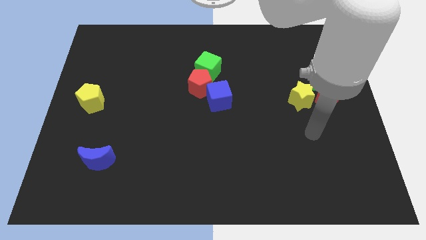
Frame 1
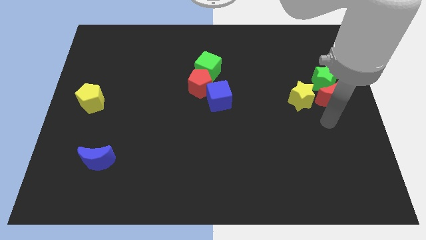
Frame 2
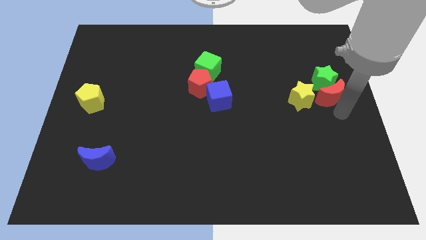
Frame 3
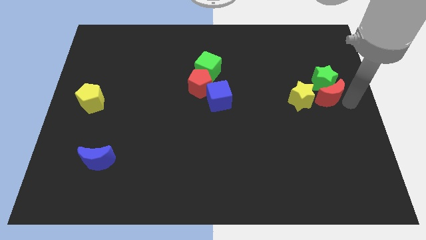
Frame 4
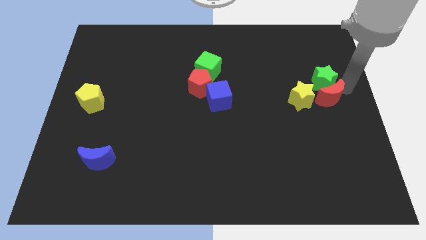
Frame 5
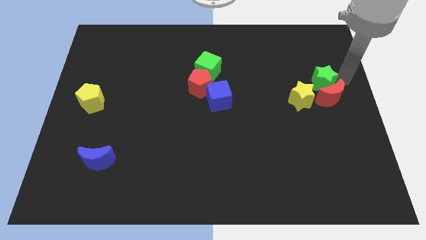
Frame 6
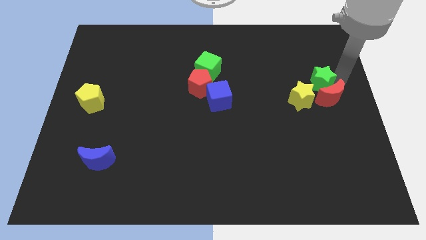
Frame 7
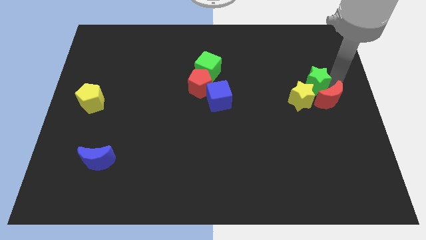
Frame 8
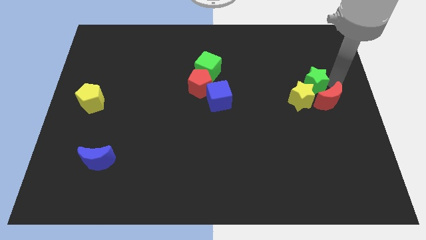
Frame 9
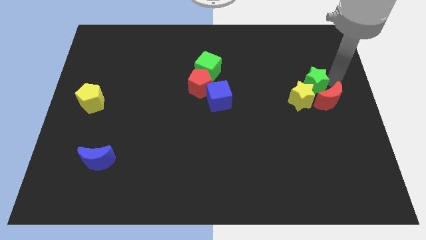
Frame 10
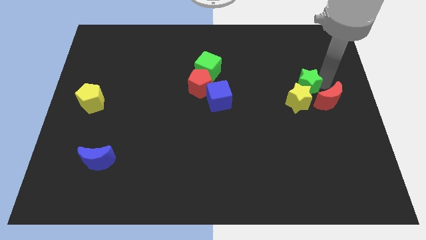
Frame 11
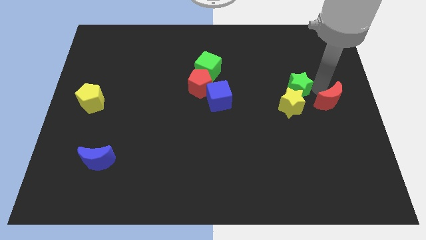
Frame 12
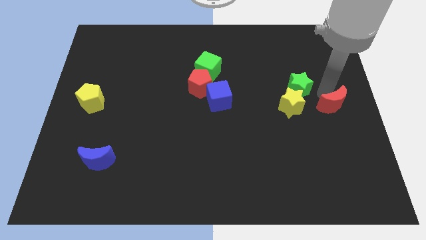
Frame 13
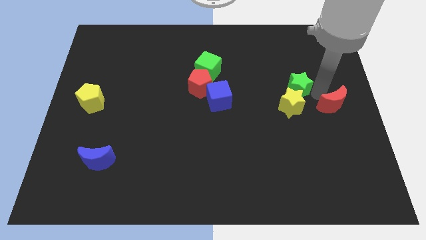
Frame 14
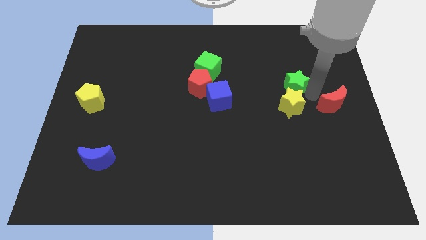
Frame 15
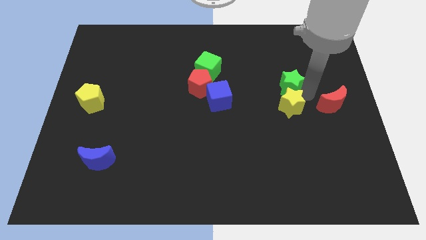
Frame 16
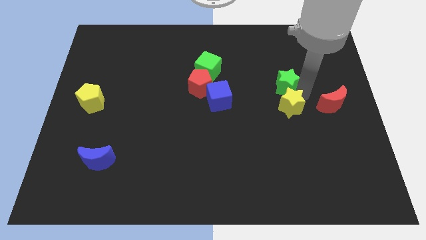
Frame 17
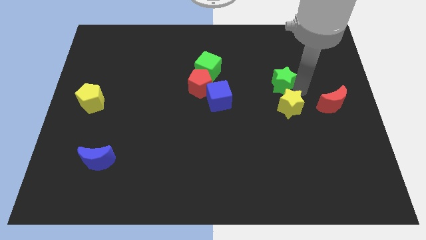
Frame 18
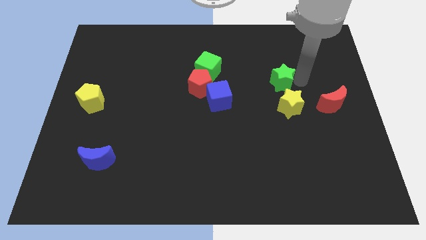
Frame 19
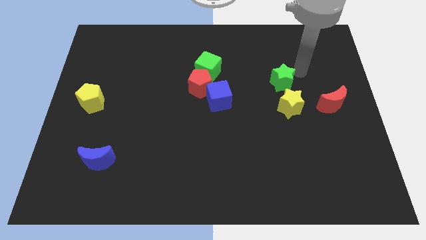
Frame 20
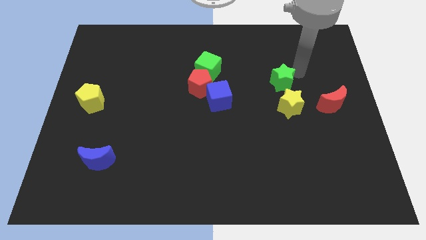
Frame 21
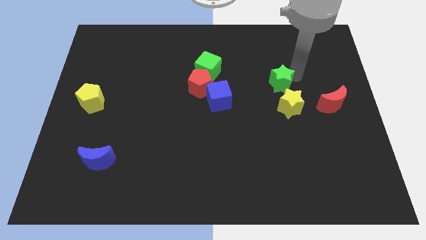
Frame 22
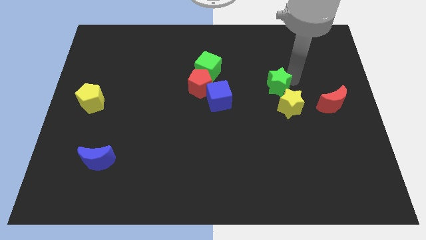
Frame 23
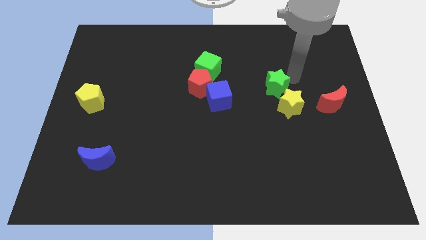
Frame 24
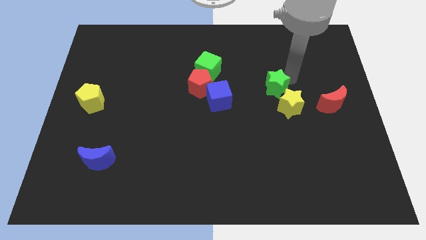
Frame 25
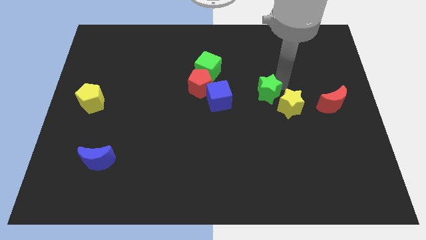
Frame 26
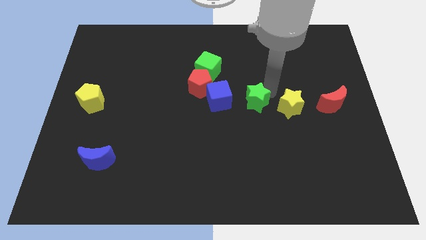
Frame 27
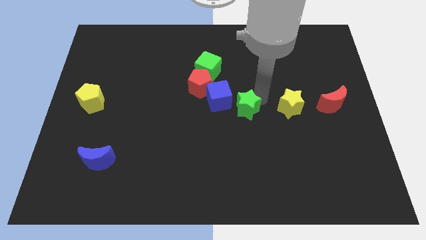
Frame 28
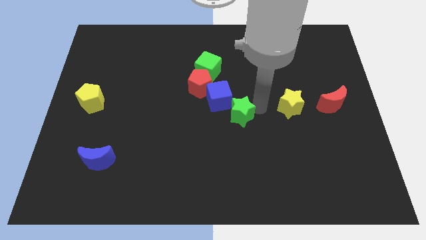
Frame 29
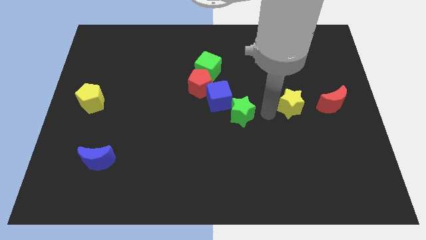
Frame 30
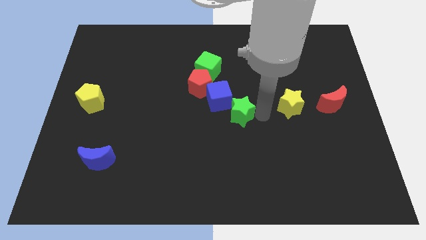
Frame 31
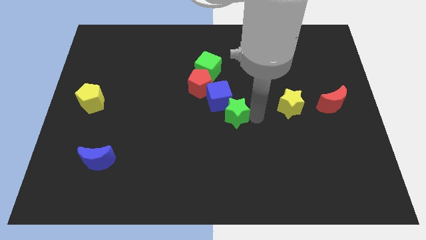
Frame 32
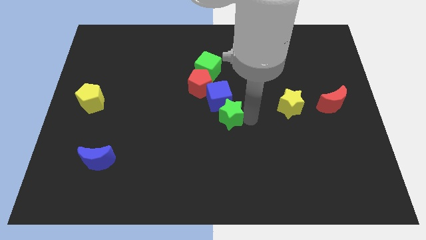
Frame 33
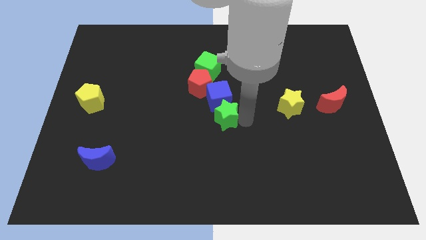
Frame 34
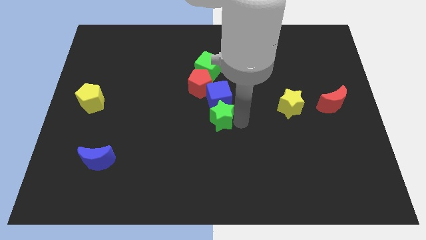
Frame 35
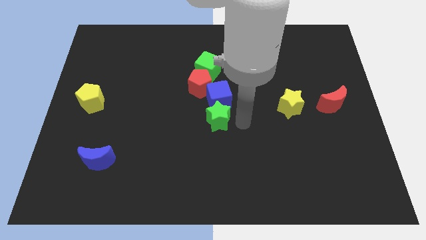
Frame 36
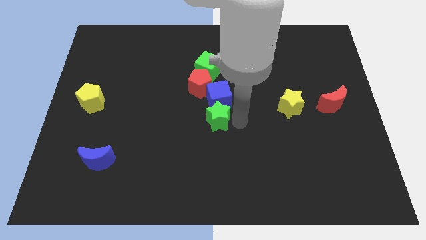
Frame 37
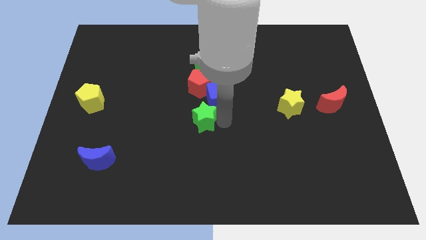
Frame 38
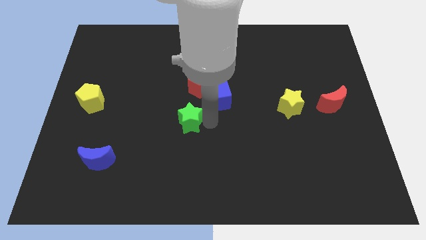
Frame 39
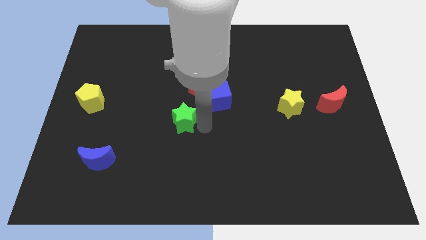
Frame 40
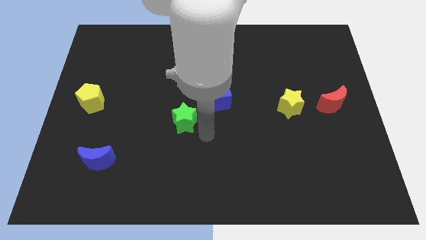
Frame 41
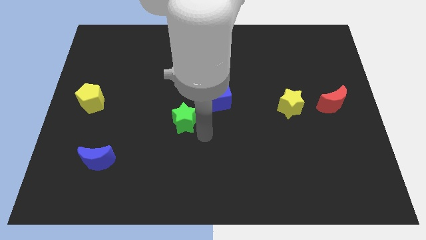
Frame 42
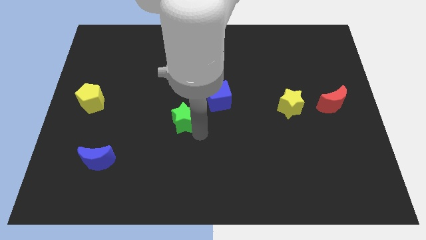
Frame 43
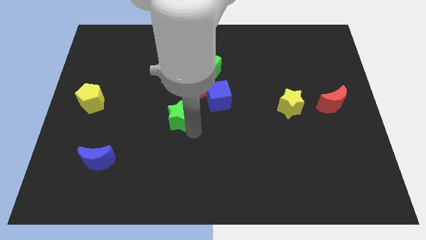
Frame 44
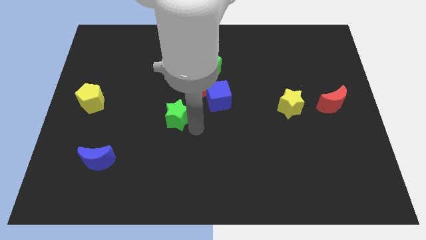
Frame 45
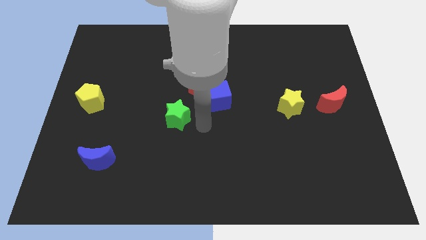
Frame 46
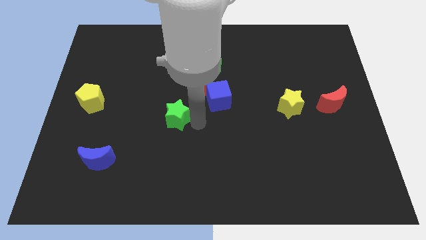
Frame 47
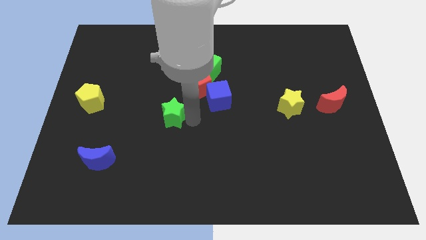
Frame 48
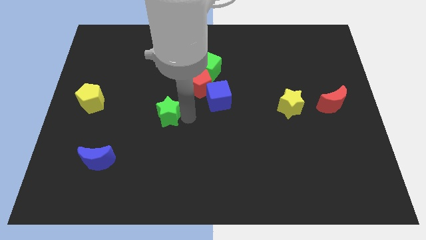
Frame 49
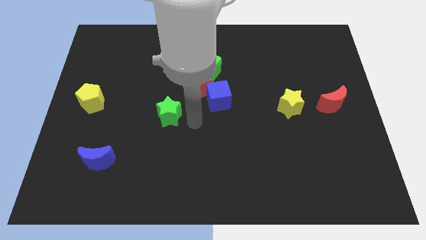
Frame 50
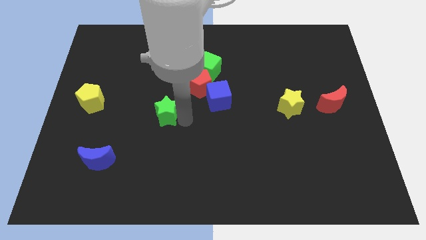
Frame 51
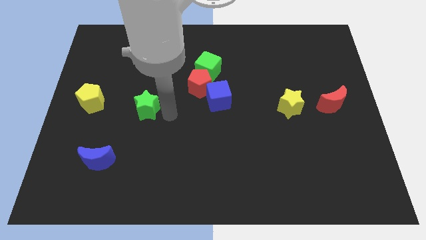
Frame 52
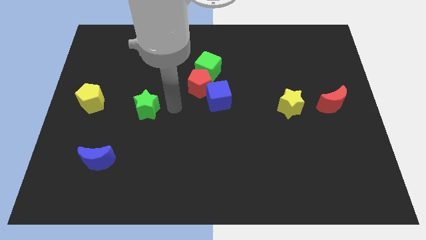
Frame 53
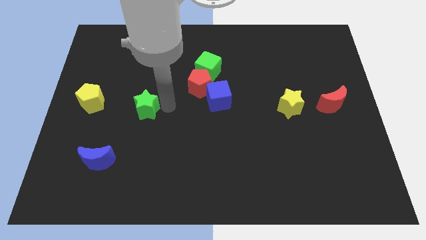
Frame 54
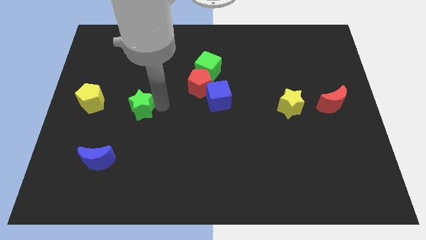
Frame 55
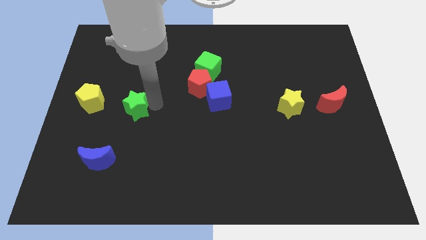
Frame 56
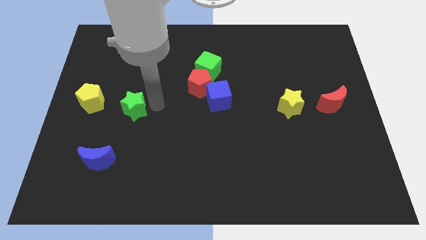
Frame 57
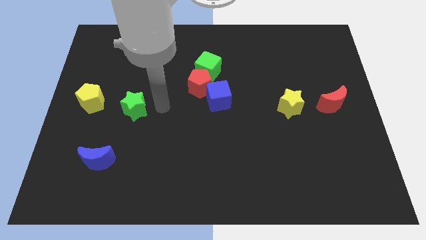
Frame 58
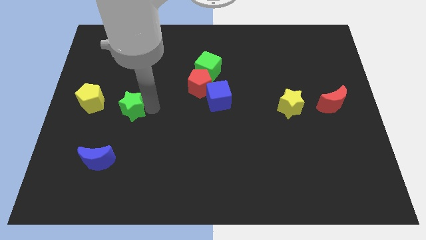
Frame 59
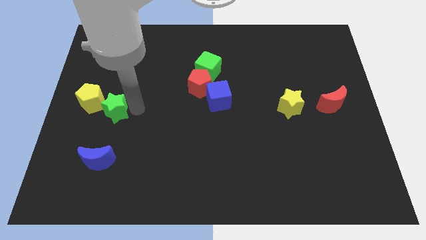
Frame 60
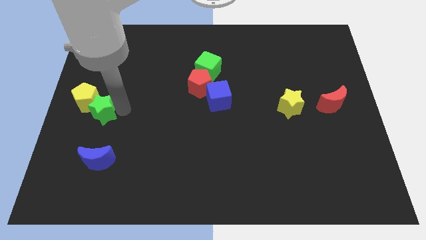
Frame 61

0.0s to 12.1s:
put the green star to the left side

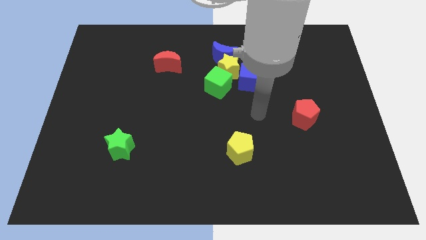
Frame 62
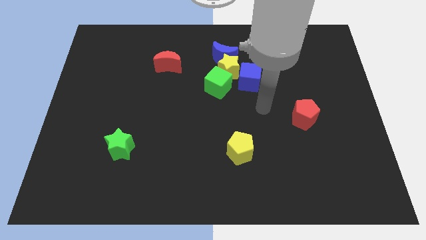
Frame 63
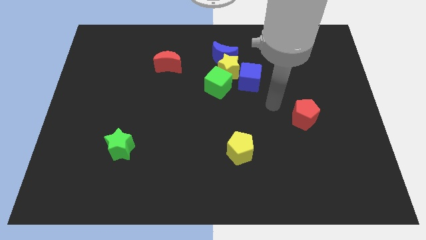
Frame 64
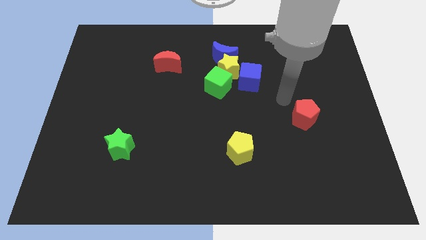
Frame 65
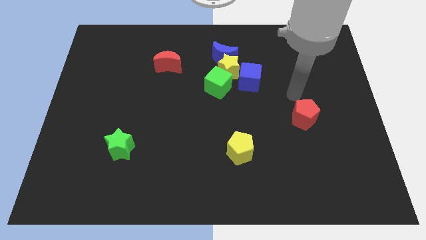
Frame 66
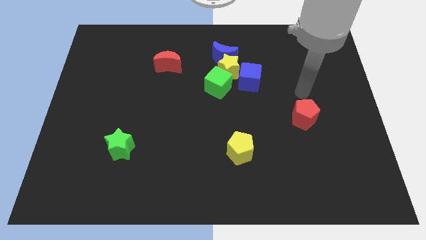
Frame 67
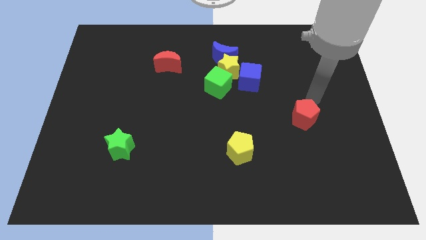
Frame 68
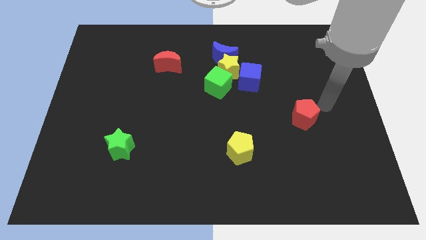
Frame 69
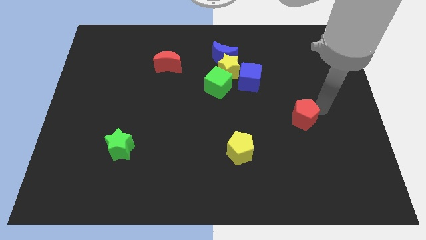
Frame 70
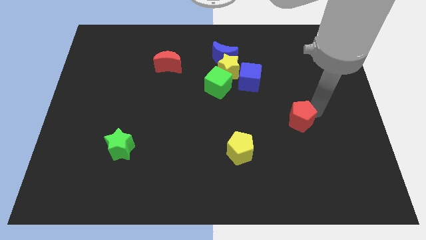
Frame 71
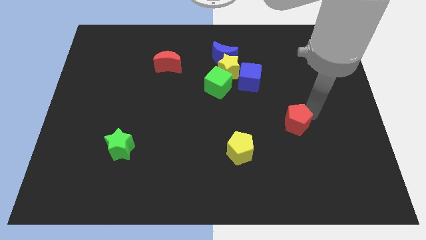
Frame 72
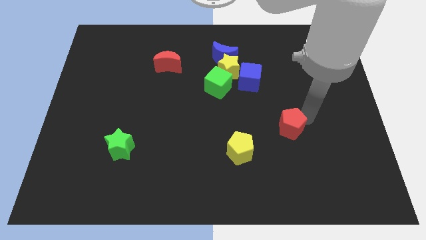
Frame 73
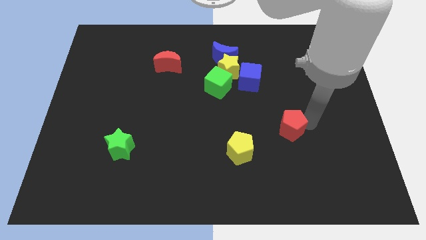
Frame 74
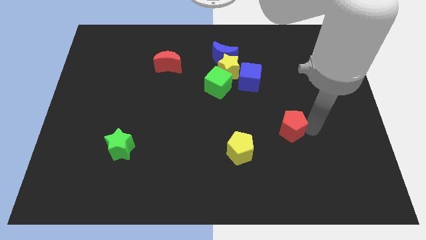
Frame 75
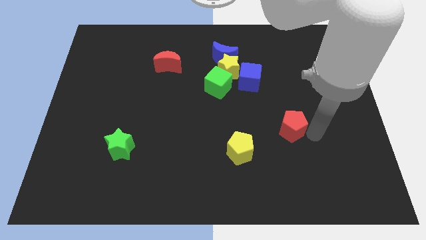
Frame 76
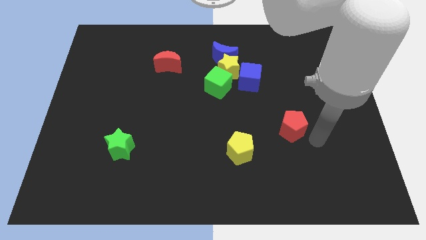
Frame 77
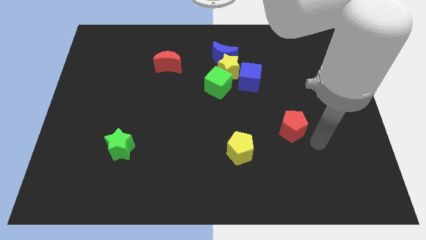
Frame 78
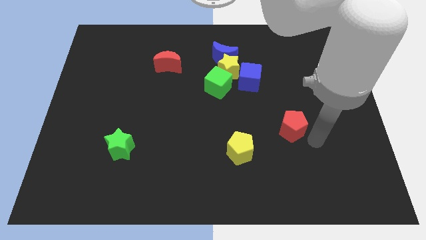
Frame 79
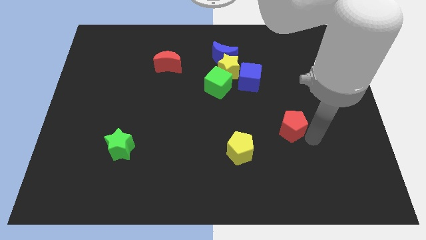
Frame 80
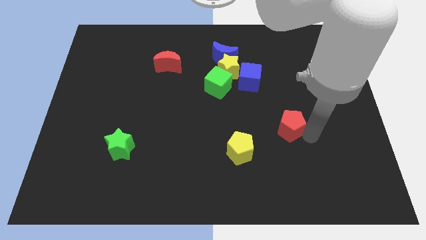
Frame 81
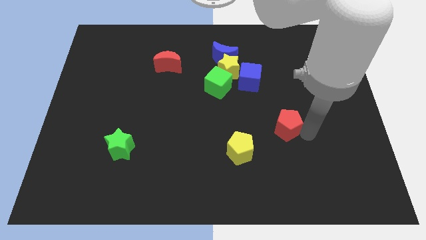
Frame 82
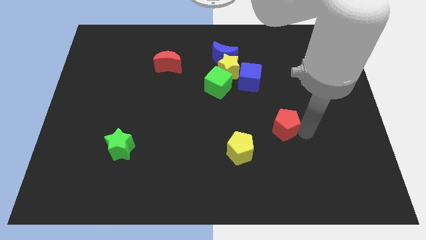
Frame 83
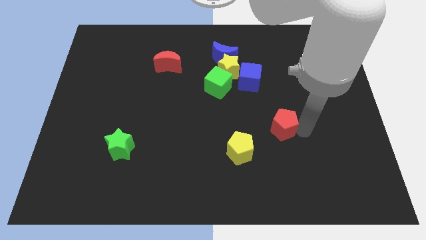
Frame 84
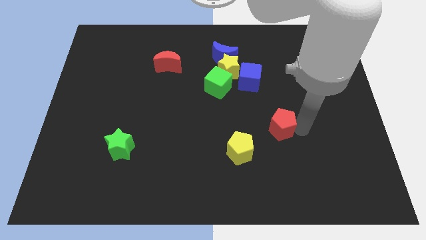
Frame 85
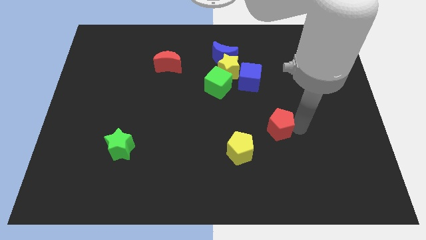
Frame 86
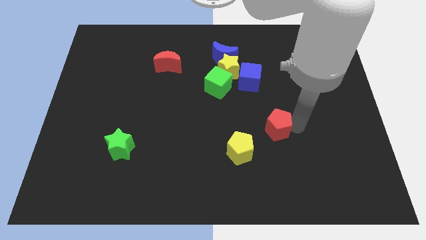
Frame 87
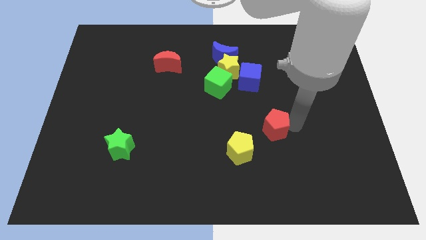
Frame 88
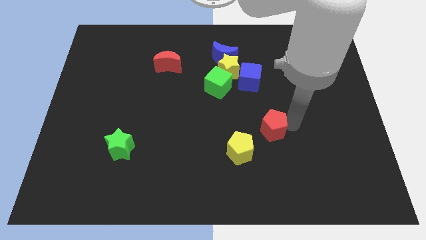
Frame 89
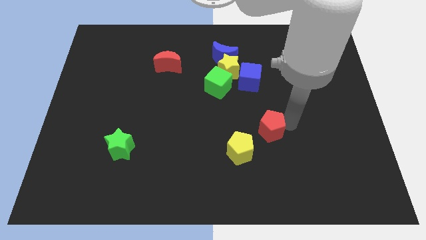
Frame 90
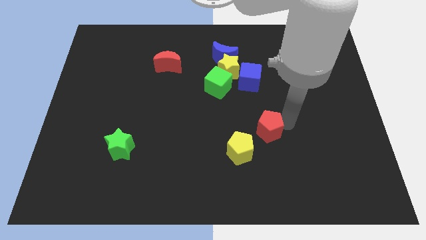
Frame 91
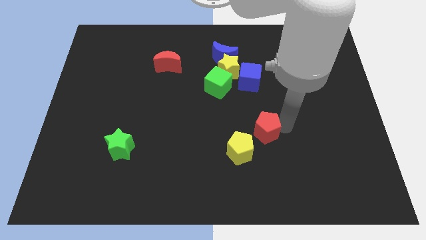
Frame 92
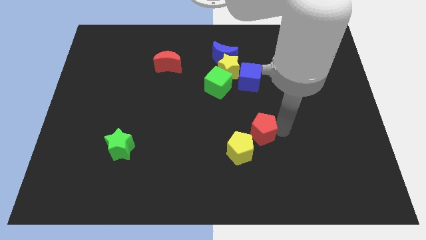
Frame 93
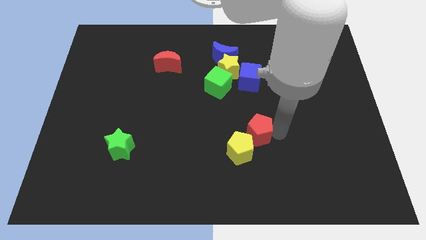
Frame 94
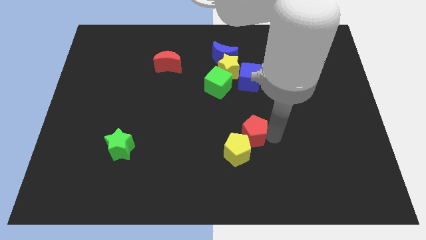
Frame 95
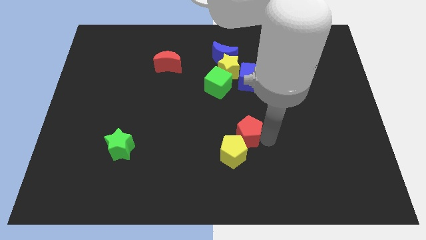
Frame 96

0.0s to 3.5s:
push the red pentagon to the center of the board
